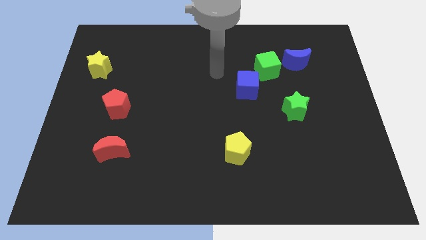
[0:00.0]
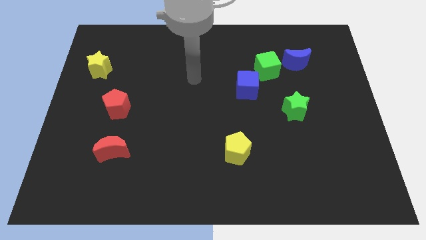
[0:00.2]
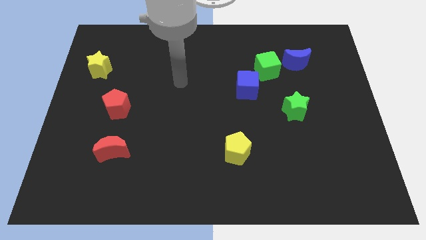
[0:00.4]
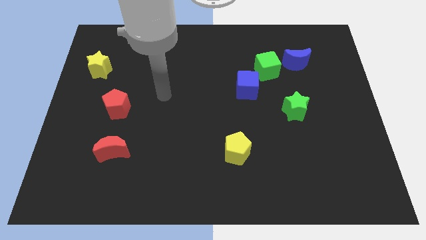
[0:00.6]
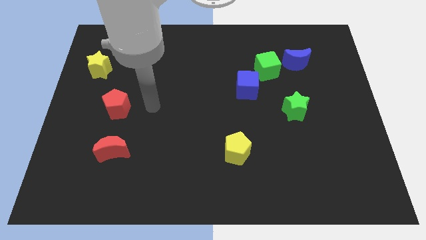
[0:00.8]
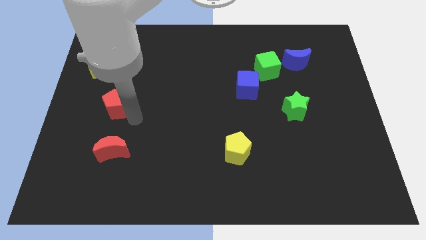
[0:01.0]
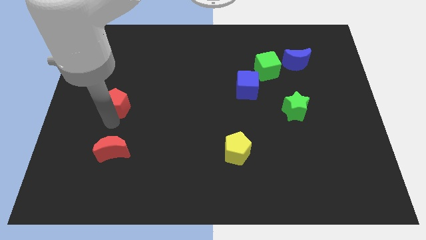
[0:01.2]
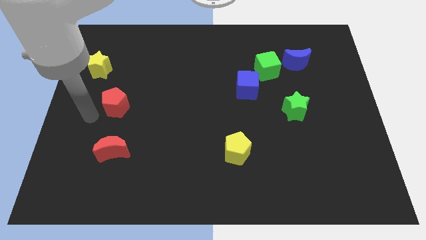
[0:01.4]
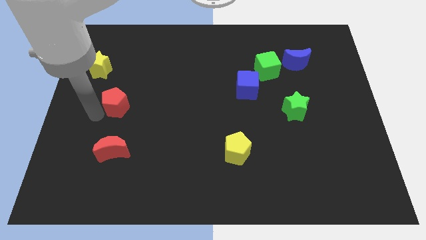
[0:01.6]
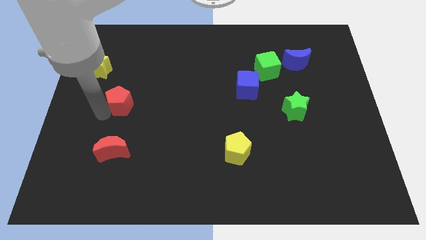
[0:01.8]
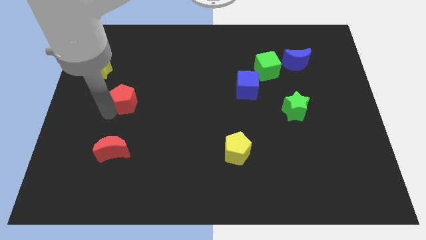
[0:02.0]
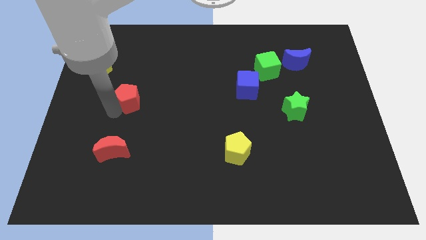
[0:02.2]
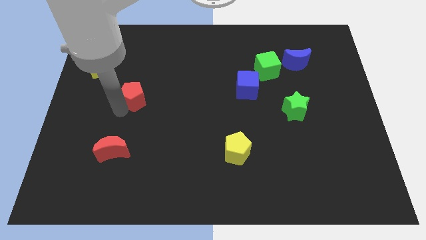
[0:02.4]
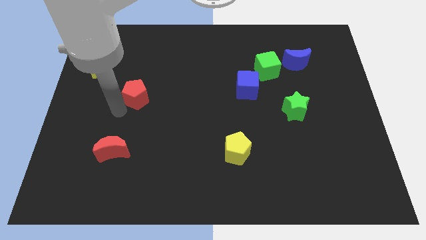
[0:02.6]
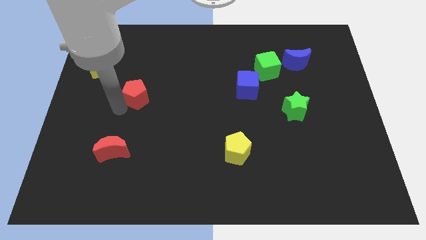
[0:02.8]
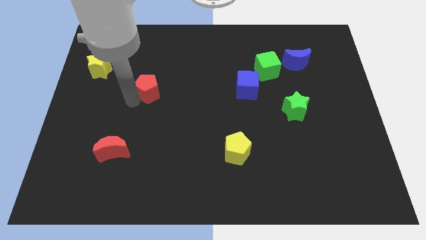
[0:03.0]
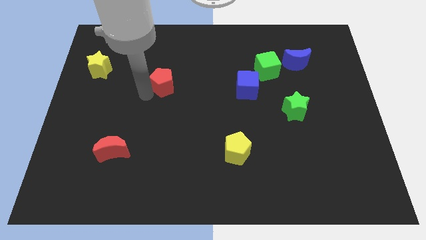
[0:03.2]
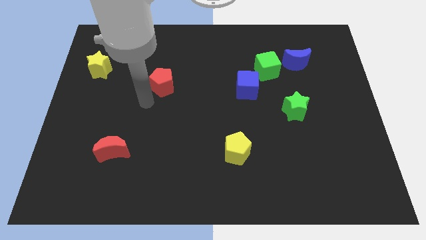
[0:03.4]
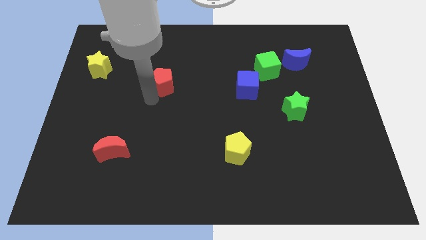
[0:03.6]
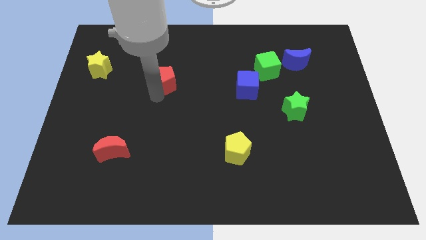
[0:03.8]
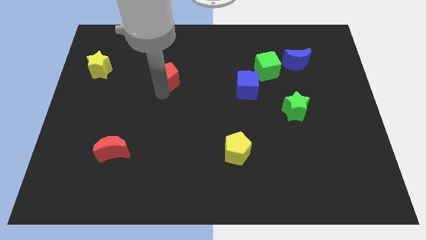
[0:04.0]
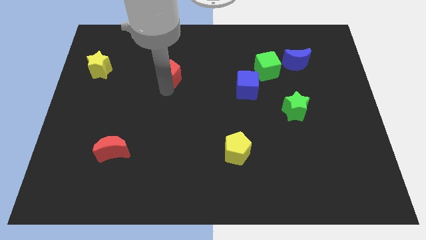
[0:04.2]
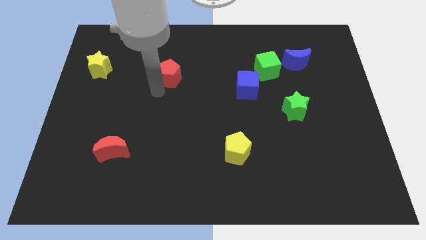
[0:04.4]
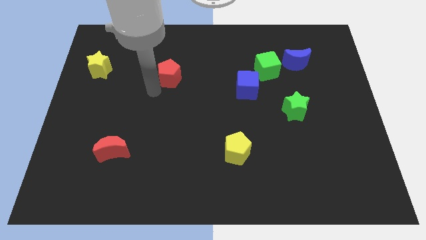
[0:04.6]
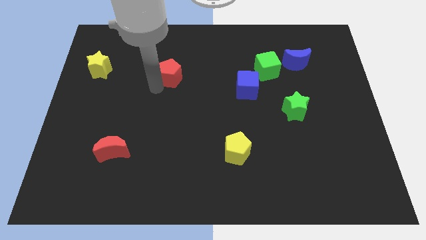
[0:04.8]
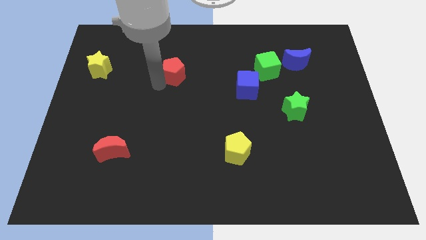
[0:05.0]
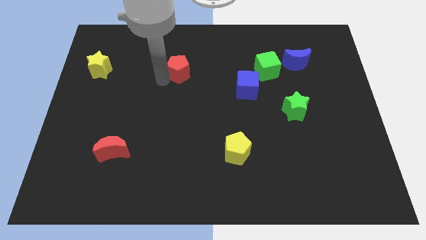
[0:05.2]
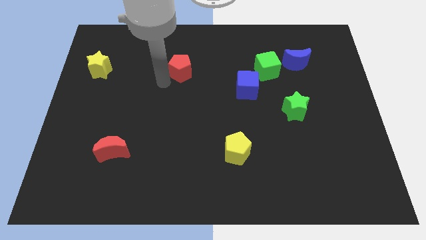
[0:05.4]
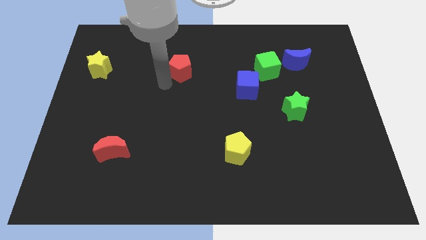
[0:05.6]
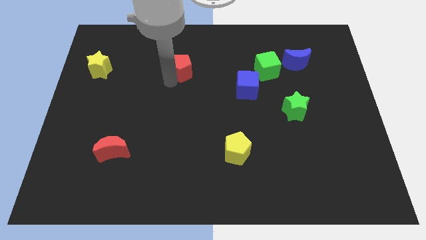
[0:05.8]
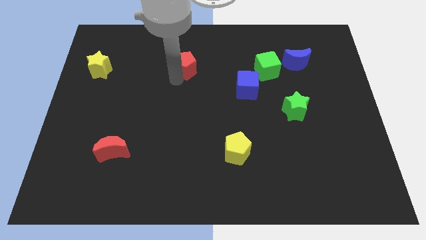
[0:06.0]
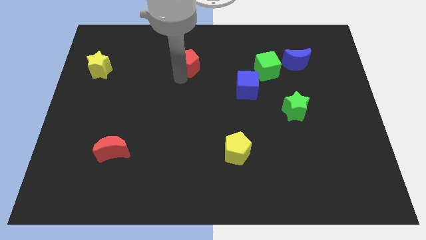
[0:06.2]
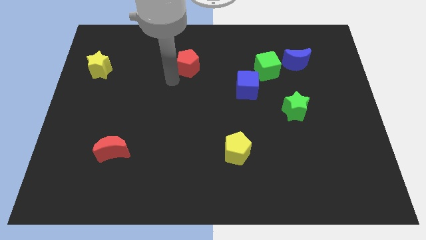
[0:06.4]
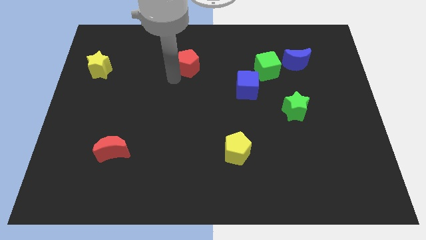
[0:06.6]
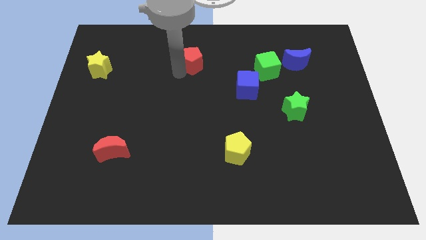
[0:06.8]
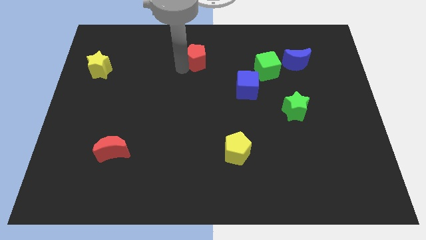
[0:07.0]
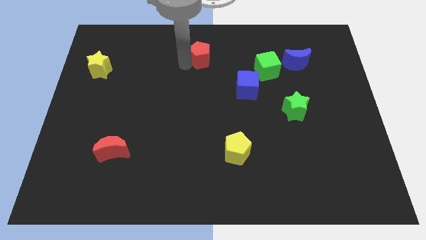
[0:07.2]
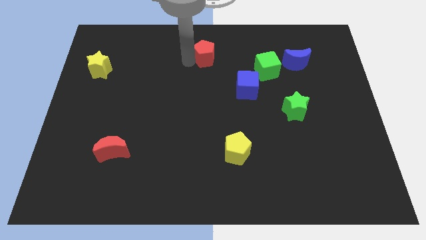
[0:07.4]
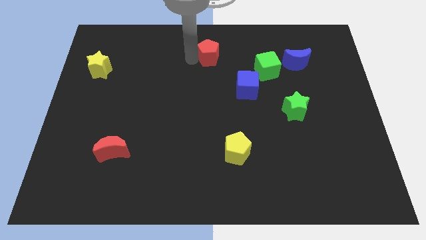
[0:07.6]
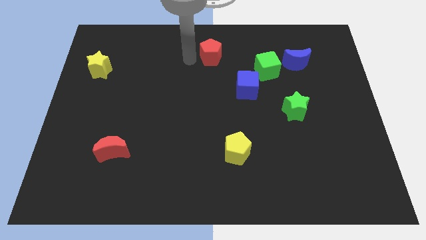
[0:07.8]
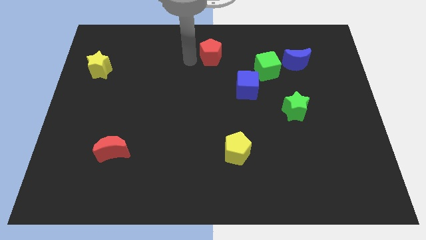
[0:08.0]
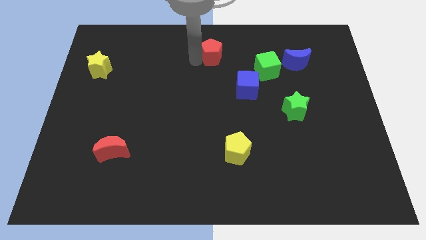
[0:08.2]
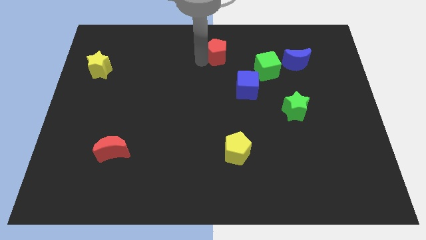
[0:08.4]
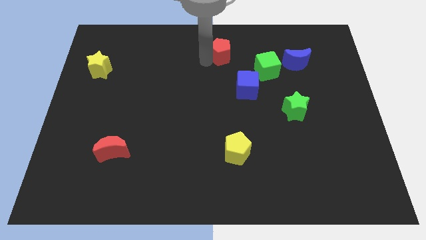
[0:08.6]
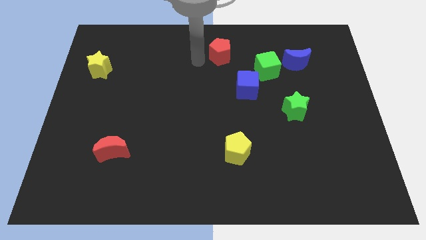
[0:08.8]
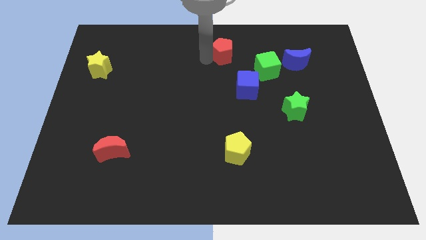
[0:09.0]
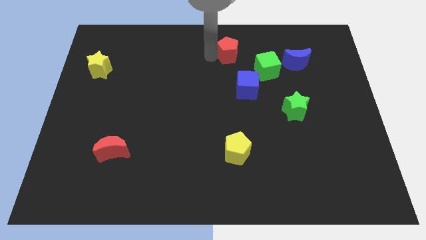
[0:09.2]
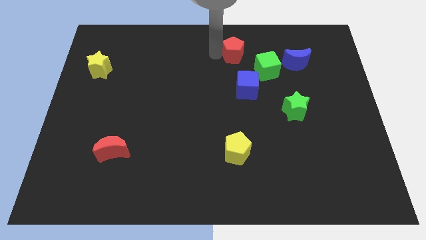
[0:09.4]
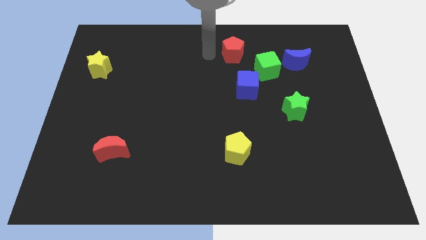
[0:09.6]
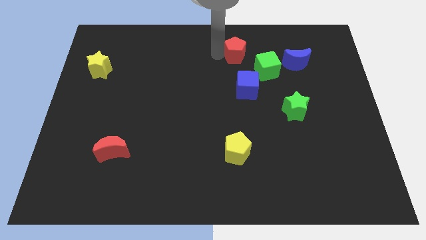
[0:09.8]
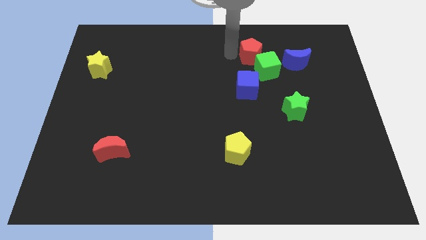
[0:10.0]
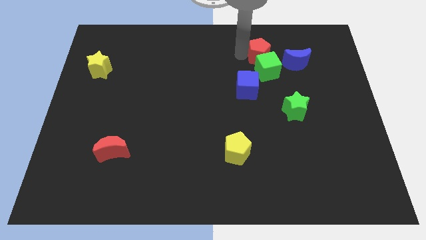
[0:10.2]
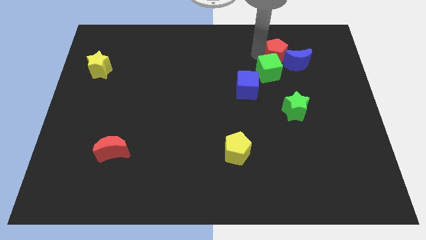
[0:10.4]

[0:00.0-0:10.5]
slide the red pentagon to the blue moon

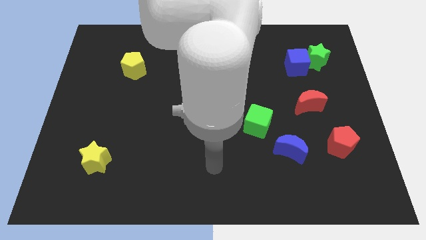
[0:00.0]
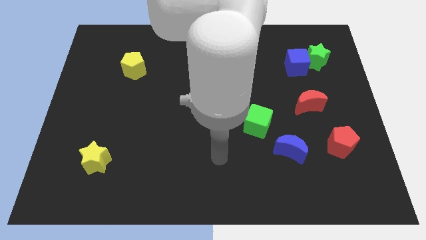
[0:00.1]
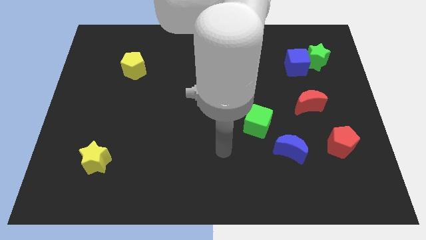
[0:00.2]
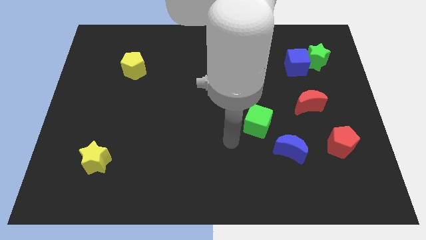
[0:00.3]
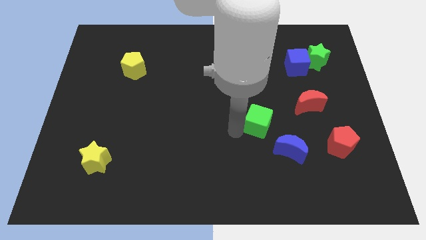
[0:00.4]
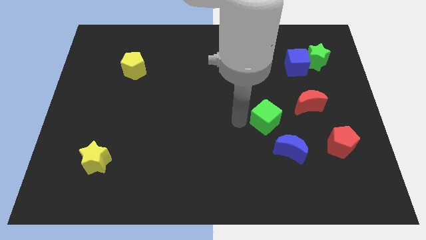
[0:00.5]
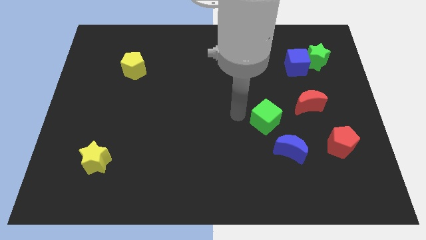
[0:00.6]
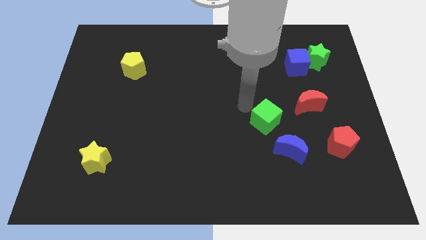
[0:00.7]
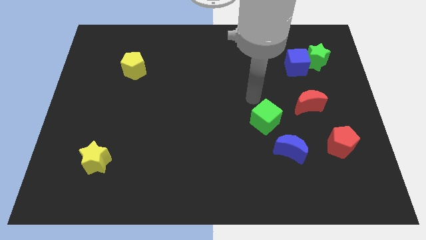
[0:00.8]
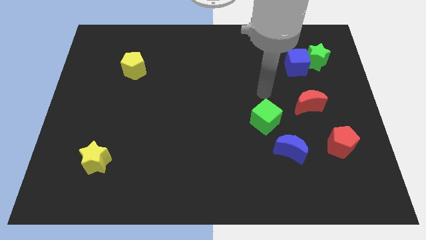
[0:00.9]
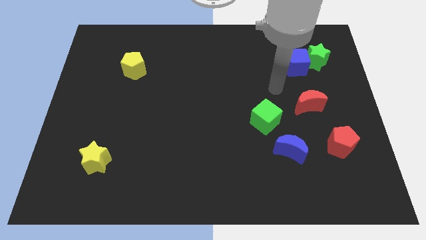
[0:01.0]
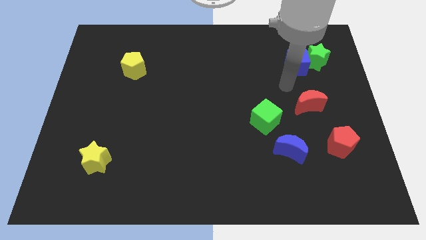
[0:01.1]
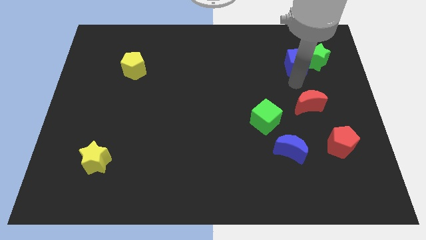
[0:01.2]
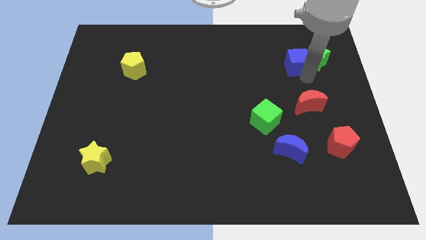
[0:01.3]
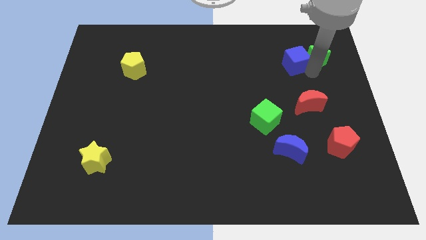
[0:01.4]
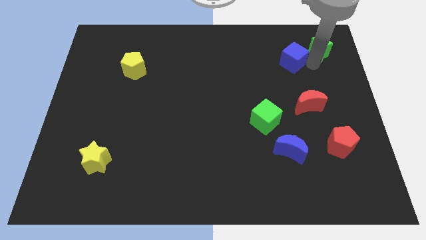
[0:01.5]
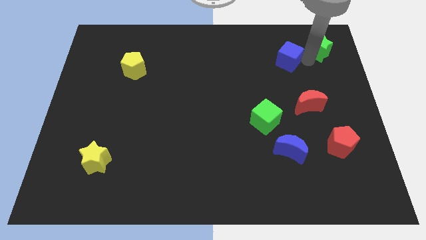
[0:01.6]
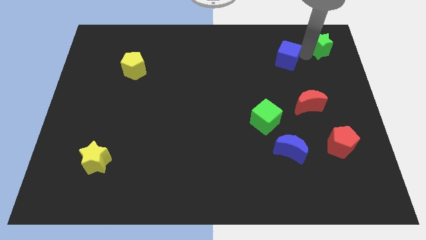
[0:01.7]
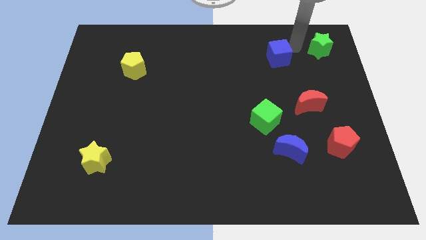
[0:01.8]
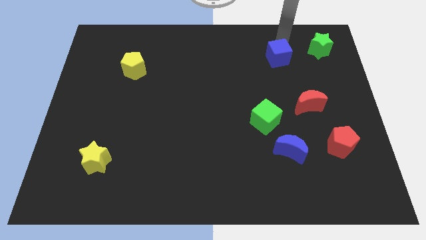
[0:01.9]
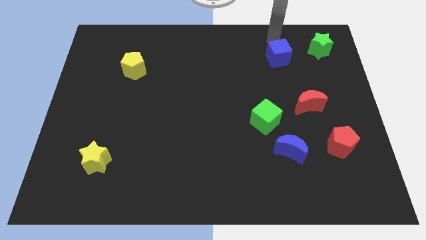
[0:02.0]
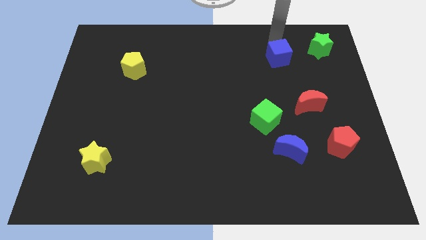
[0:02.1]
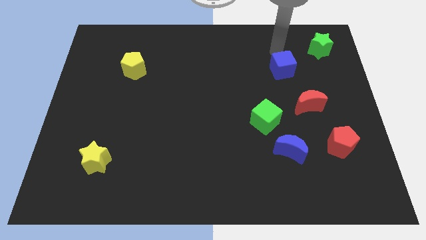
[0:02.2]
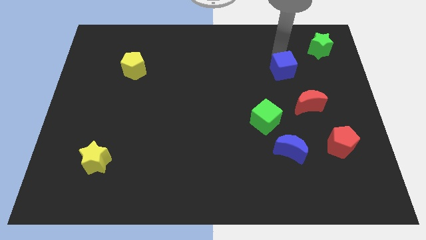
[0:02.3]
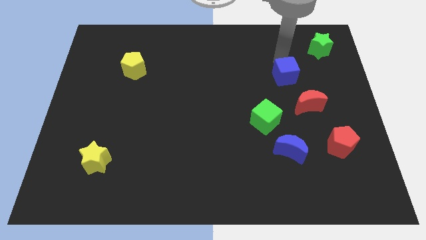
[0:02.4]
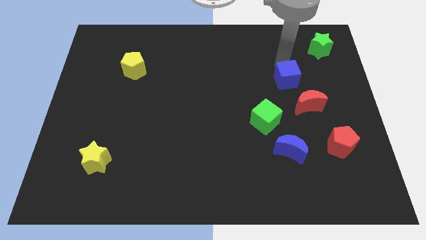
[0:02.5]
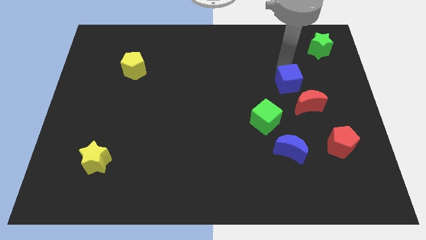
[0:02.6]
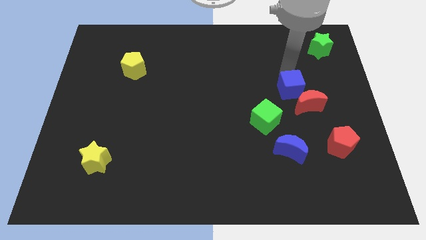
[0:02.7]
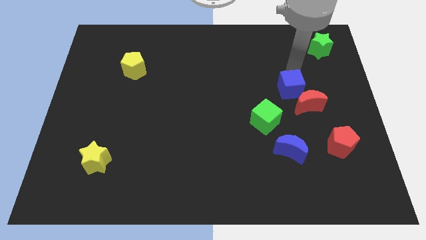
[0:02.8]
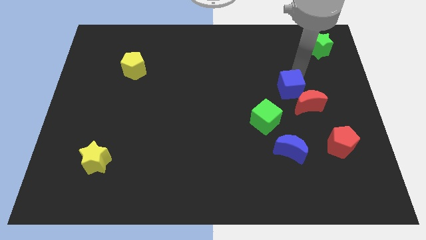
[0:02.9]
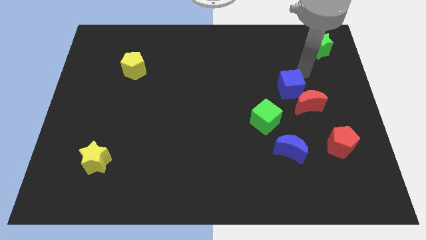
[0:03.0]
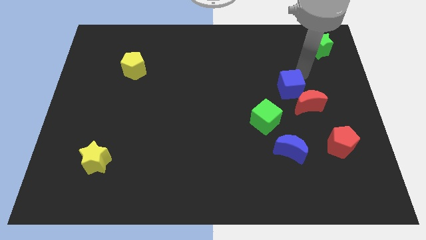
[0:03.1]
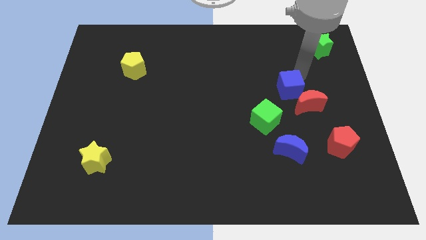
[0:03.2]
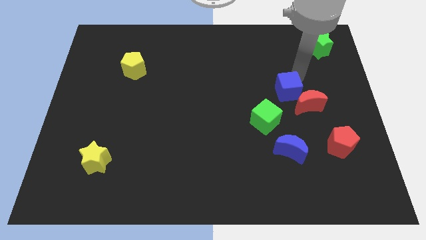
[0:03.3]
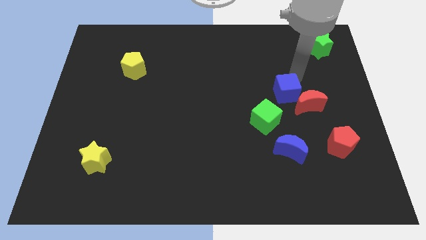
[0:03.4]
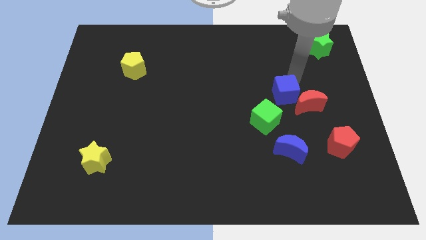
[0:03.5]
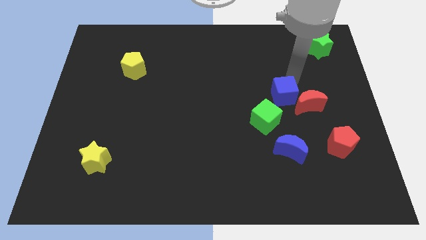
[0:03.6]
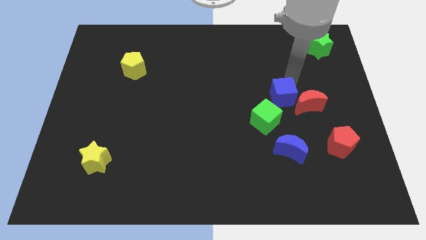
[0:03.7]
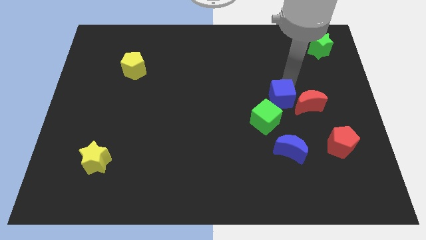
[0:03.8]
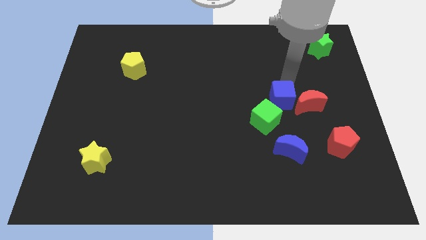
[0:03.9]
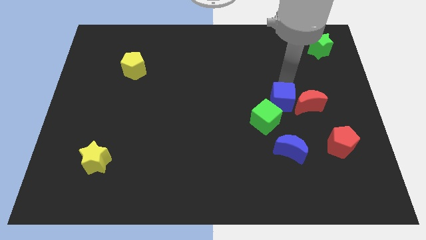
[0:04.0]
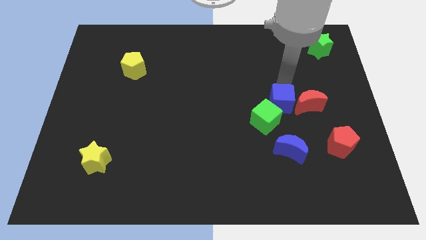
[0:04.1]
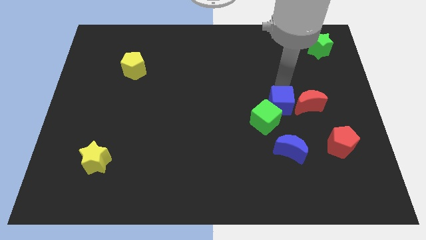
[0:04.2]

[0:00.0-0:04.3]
push the blue cube next to the green cube
